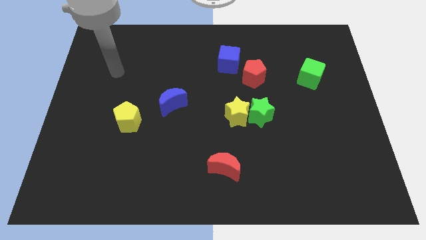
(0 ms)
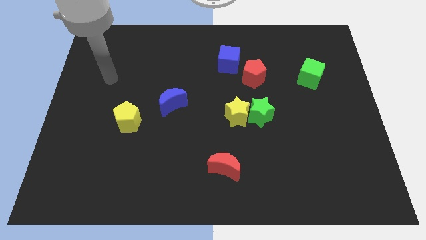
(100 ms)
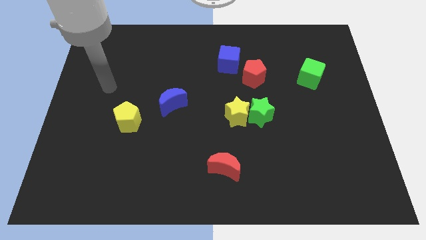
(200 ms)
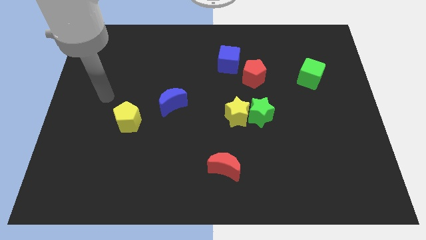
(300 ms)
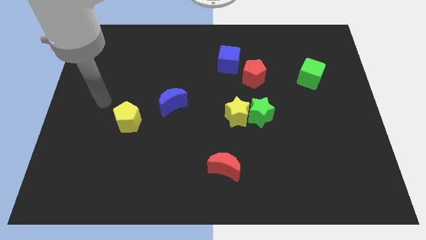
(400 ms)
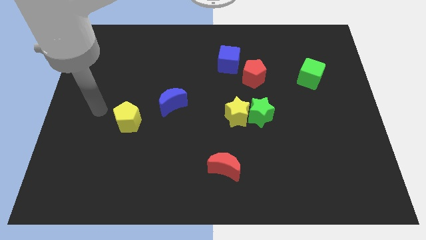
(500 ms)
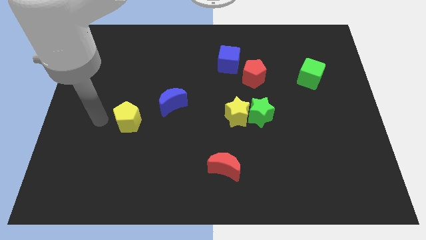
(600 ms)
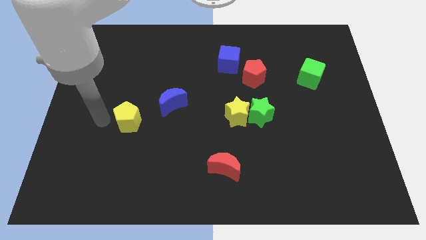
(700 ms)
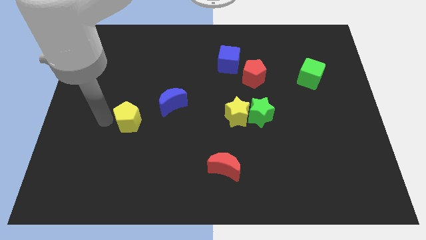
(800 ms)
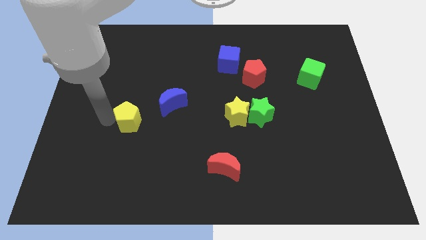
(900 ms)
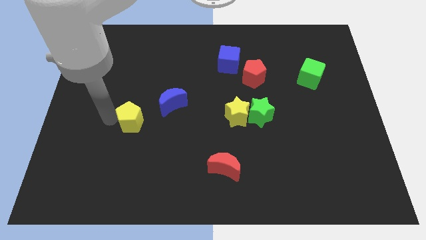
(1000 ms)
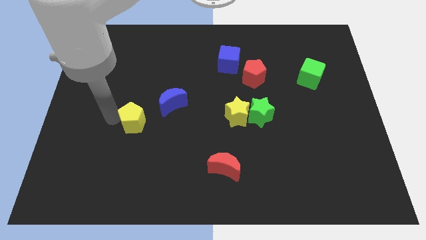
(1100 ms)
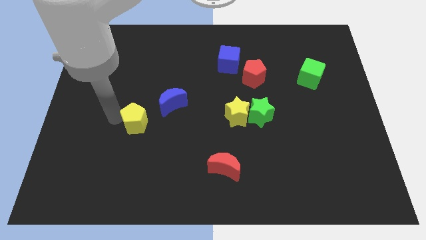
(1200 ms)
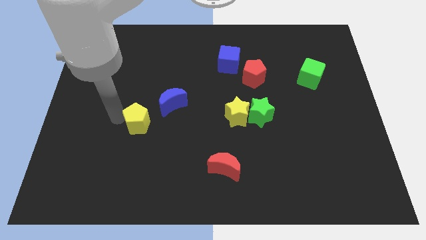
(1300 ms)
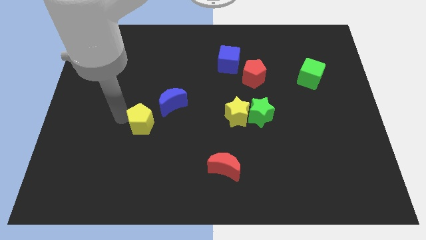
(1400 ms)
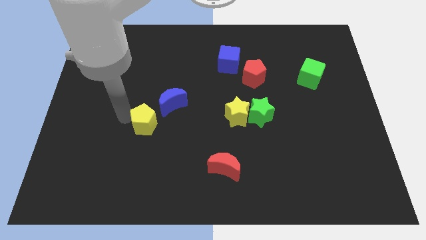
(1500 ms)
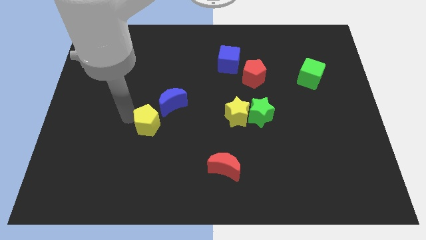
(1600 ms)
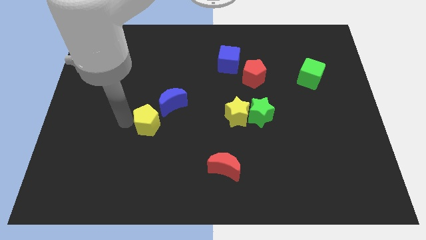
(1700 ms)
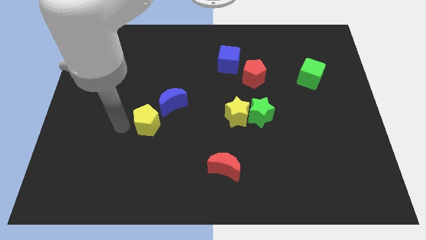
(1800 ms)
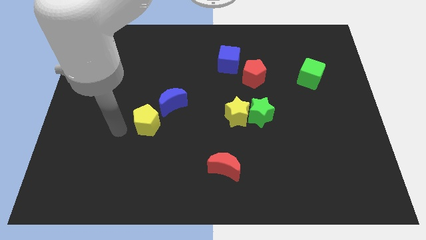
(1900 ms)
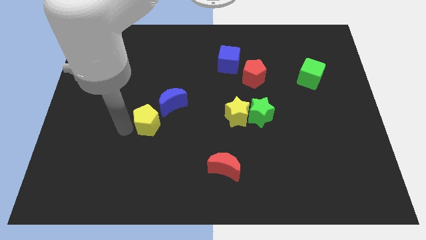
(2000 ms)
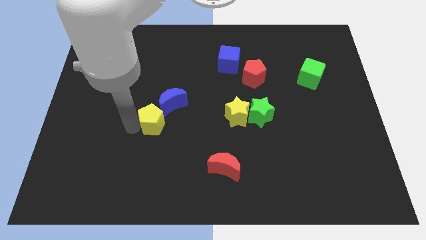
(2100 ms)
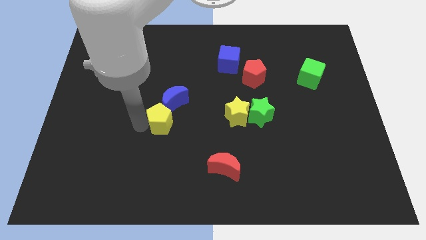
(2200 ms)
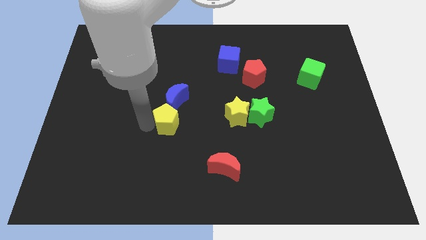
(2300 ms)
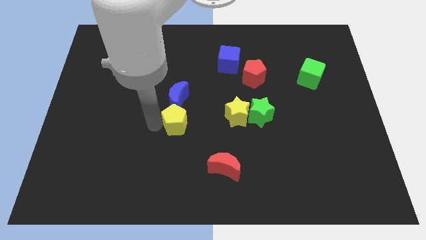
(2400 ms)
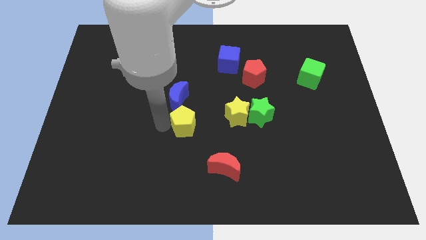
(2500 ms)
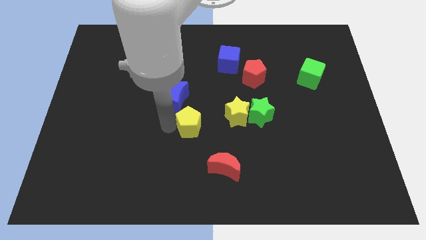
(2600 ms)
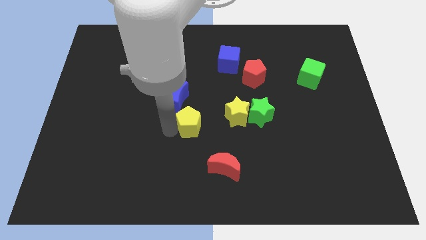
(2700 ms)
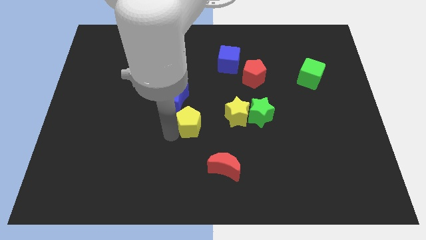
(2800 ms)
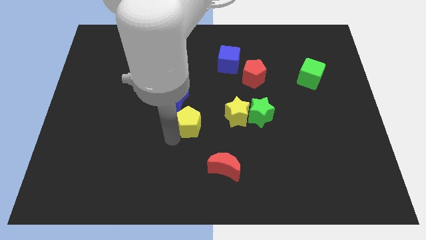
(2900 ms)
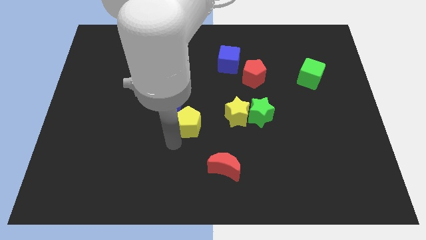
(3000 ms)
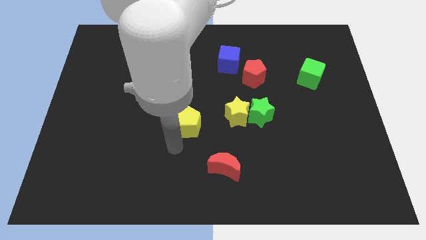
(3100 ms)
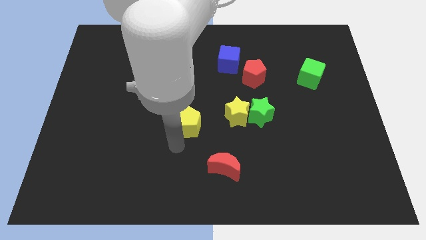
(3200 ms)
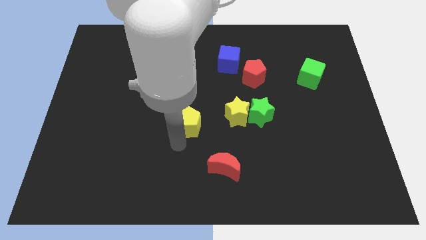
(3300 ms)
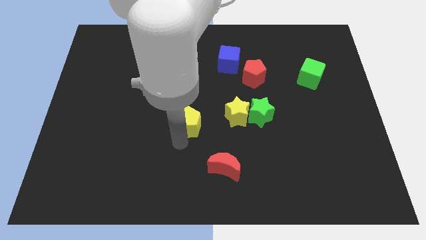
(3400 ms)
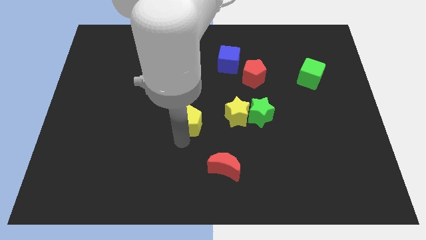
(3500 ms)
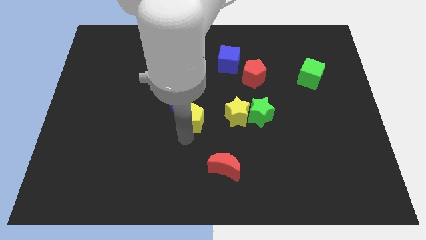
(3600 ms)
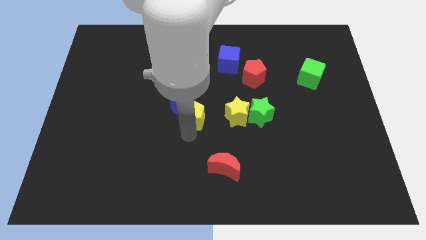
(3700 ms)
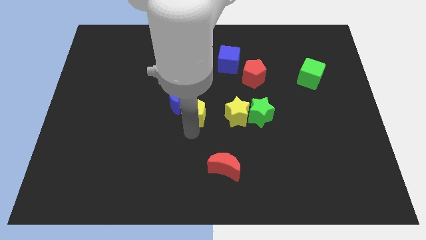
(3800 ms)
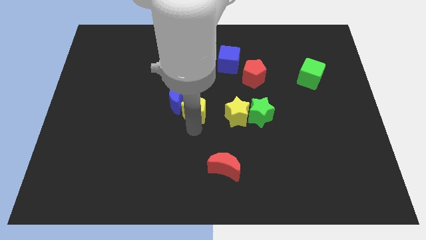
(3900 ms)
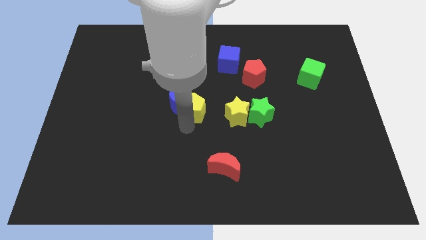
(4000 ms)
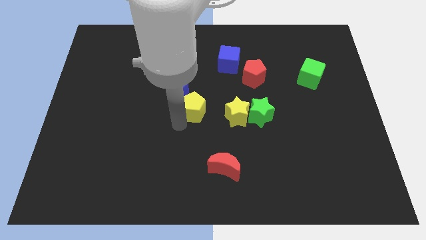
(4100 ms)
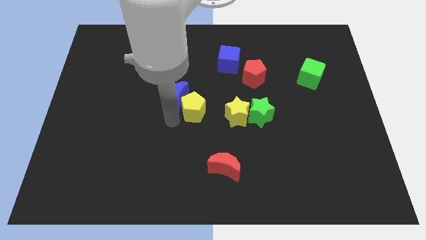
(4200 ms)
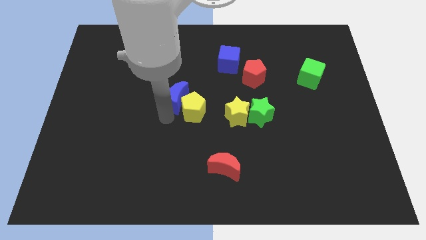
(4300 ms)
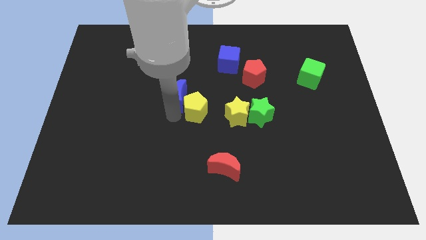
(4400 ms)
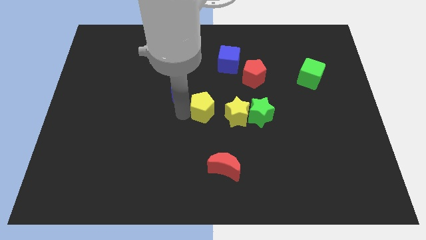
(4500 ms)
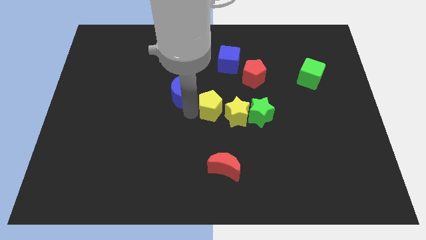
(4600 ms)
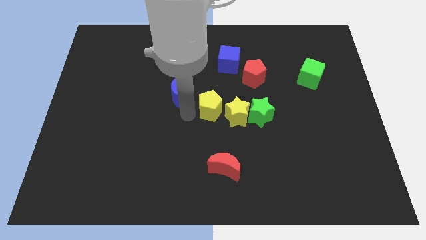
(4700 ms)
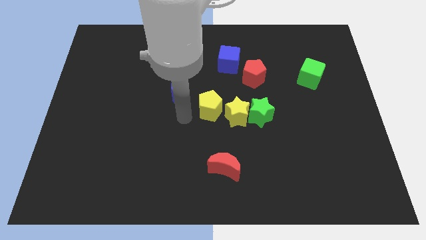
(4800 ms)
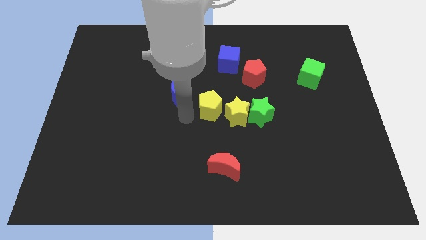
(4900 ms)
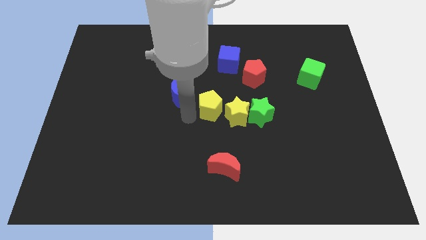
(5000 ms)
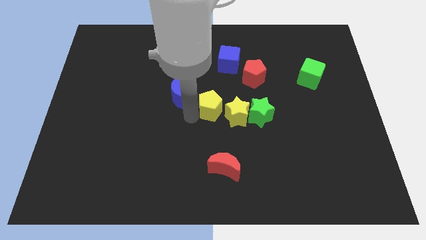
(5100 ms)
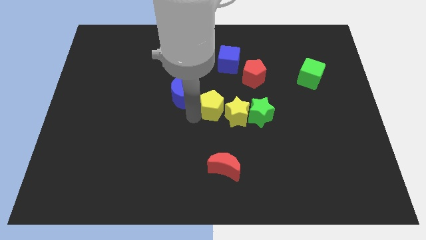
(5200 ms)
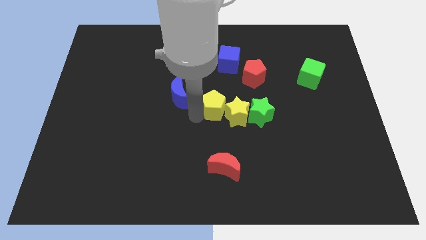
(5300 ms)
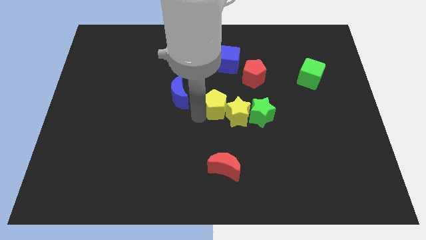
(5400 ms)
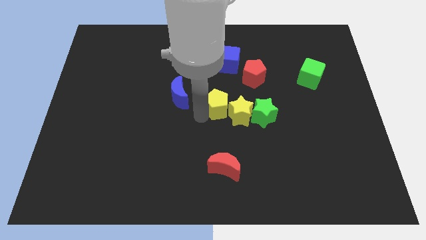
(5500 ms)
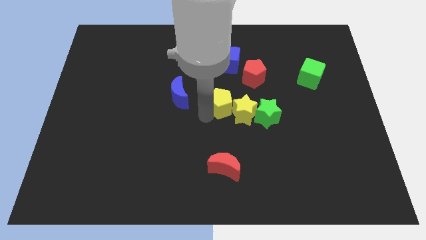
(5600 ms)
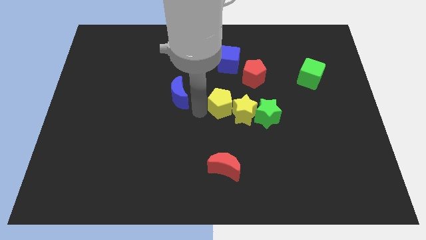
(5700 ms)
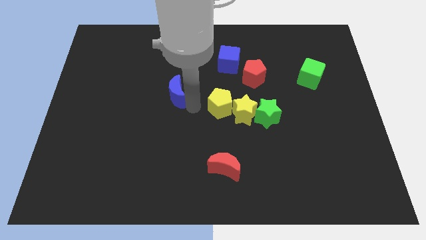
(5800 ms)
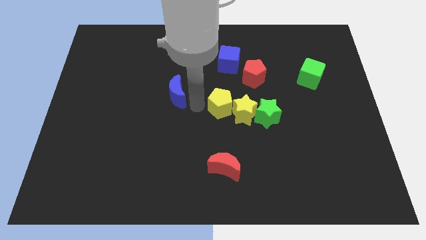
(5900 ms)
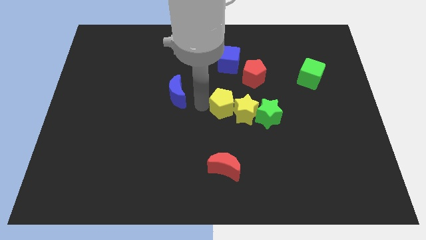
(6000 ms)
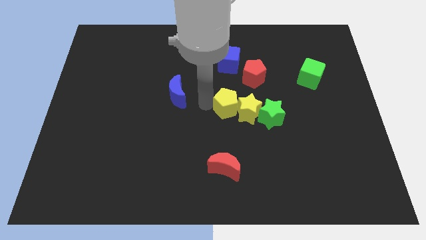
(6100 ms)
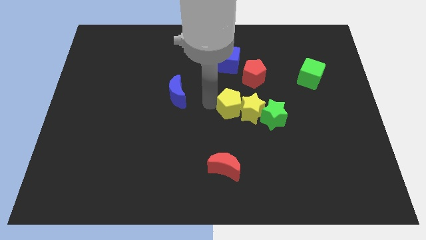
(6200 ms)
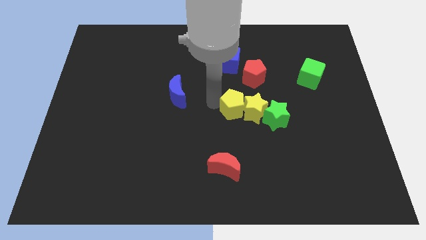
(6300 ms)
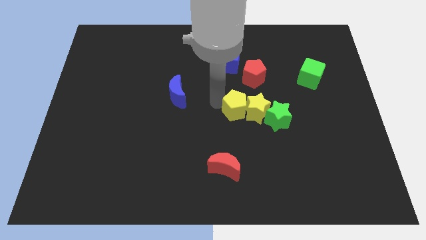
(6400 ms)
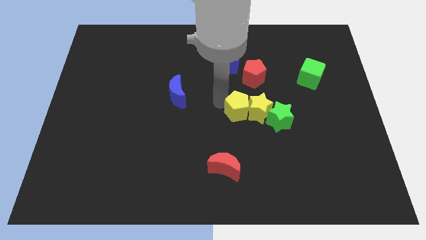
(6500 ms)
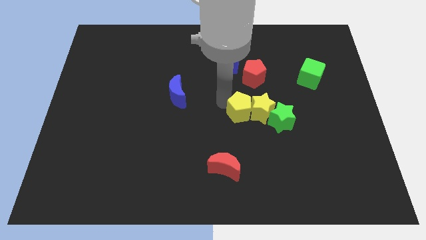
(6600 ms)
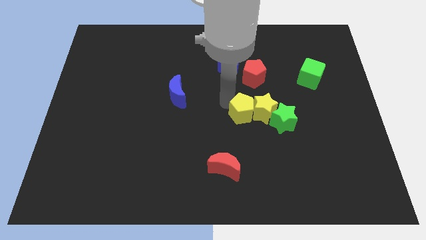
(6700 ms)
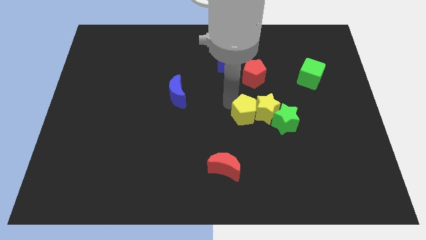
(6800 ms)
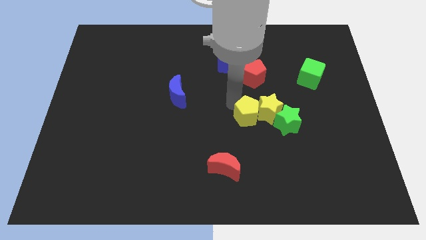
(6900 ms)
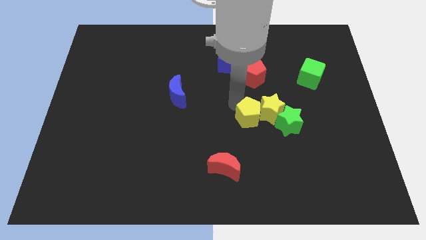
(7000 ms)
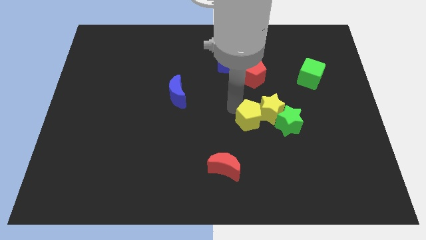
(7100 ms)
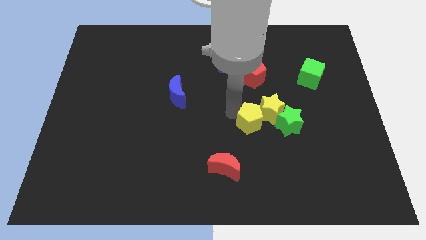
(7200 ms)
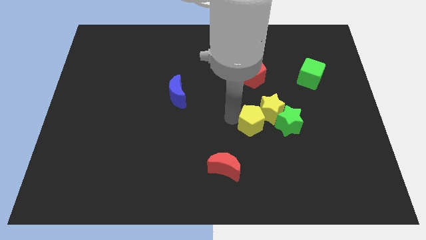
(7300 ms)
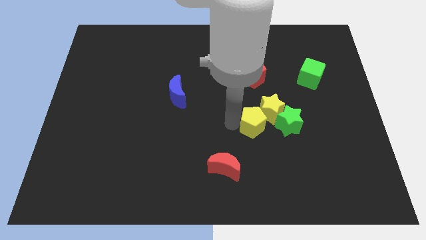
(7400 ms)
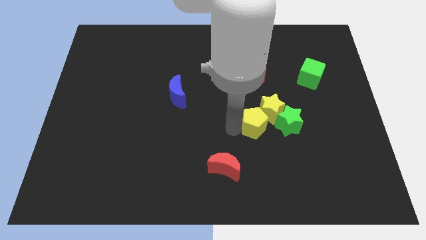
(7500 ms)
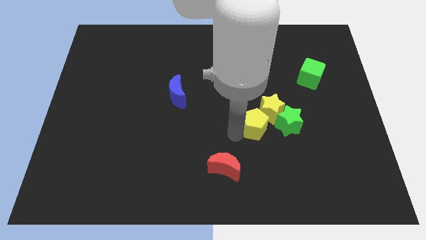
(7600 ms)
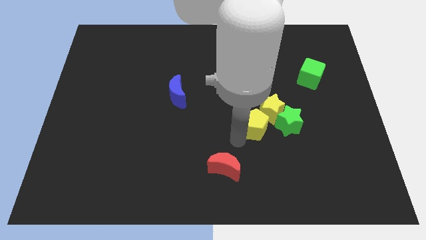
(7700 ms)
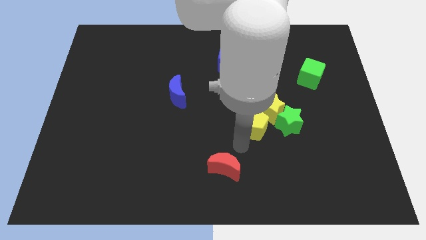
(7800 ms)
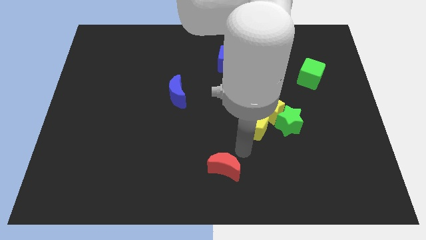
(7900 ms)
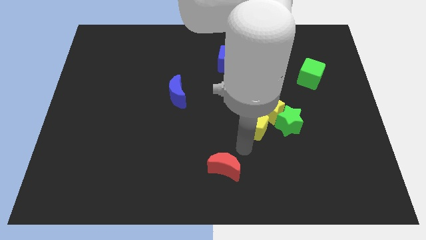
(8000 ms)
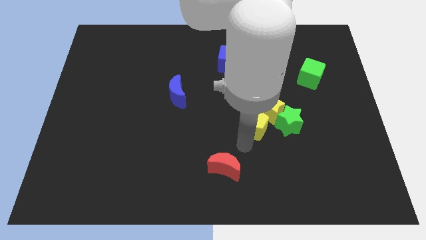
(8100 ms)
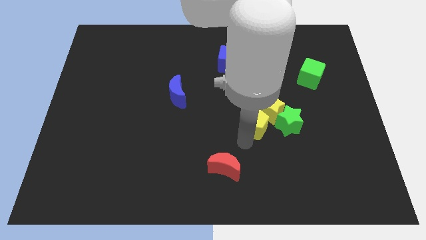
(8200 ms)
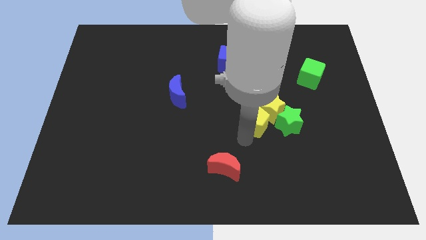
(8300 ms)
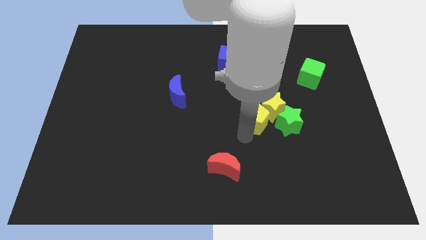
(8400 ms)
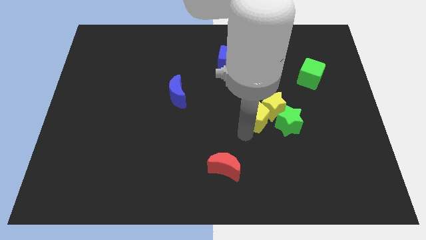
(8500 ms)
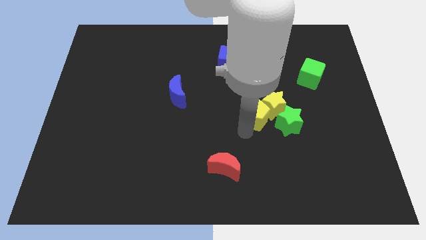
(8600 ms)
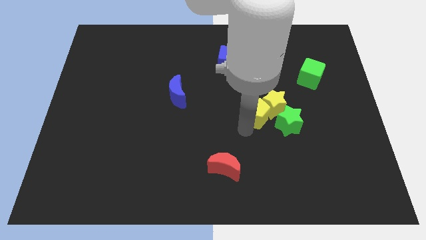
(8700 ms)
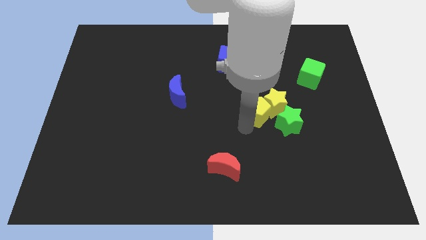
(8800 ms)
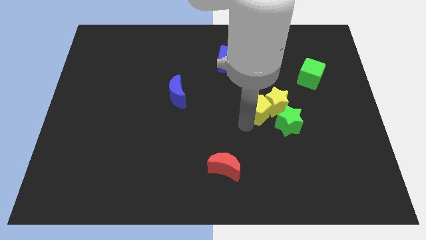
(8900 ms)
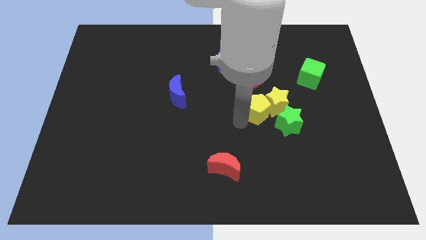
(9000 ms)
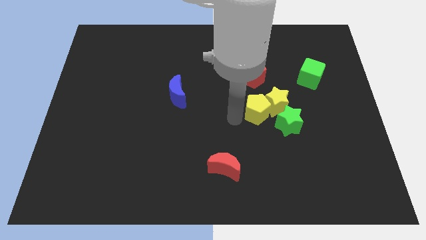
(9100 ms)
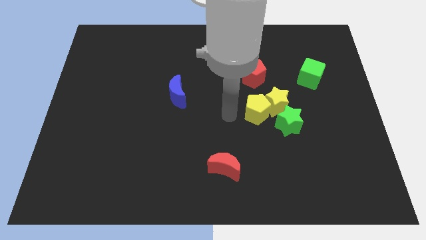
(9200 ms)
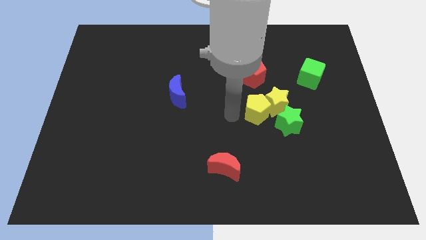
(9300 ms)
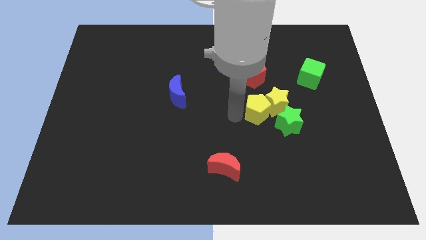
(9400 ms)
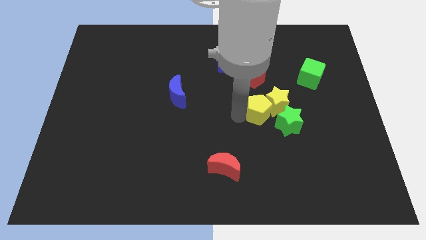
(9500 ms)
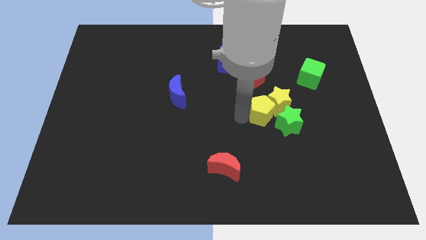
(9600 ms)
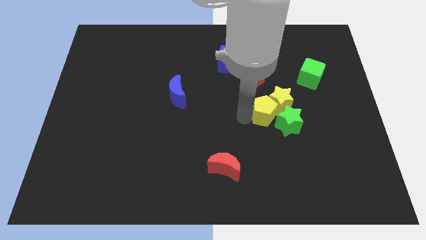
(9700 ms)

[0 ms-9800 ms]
push the yellow pentagon close to the green star
